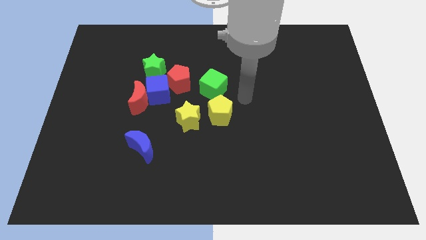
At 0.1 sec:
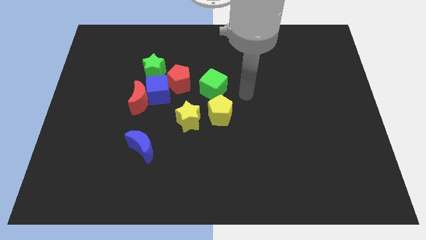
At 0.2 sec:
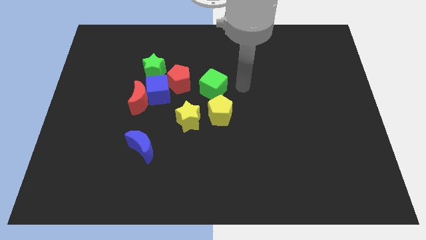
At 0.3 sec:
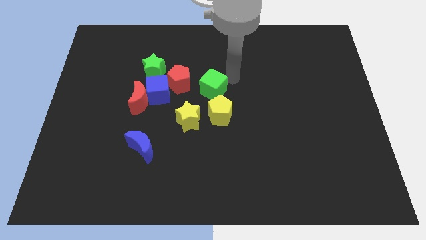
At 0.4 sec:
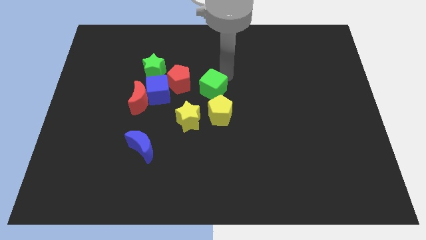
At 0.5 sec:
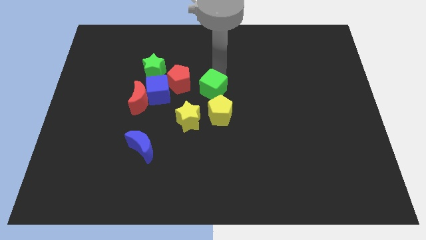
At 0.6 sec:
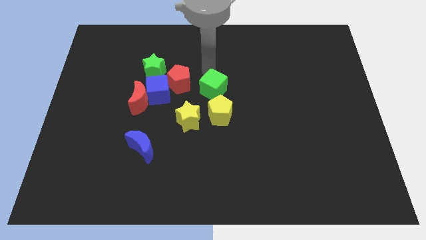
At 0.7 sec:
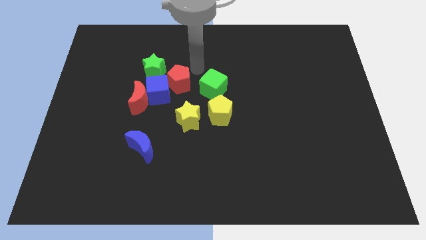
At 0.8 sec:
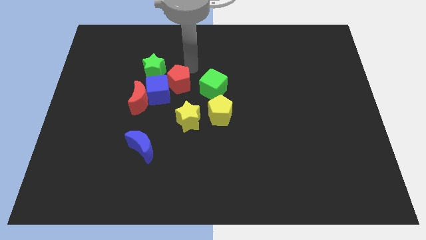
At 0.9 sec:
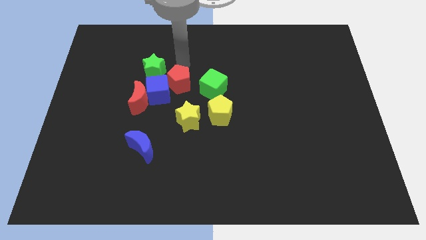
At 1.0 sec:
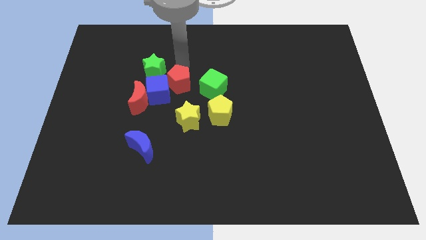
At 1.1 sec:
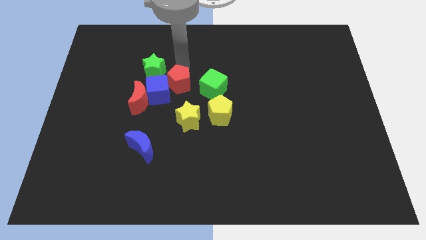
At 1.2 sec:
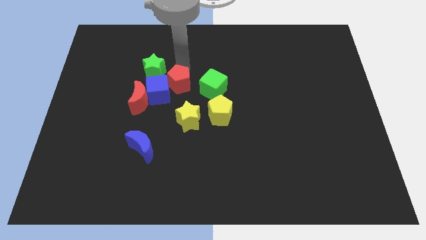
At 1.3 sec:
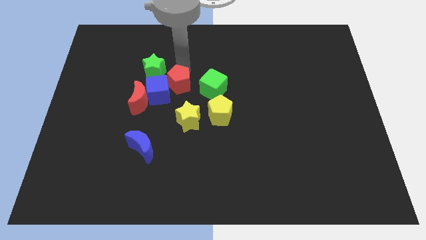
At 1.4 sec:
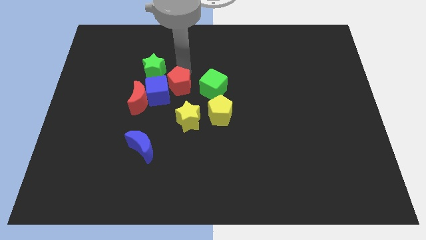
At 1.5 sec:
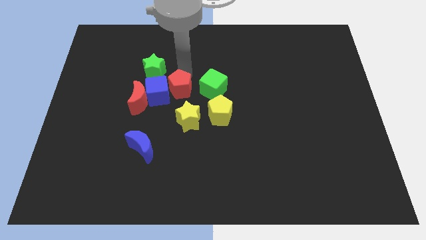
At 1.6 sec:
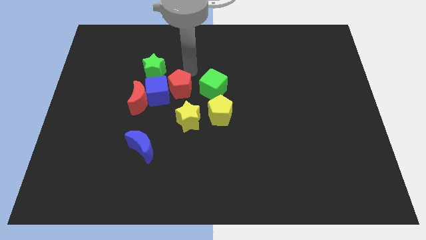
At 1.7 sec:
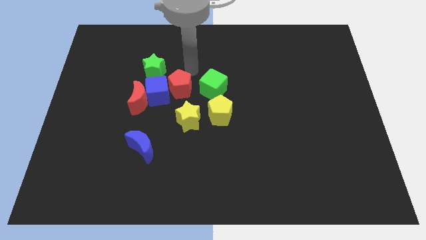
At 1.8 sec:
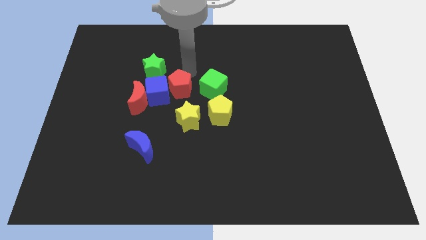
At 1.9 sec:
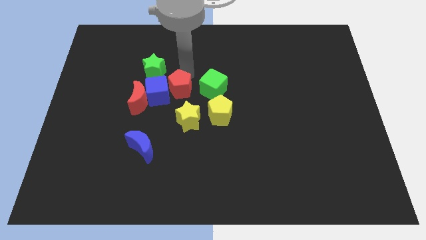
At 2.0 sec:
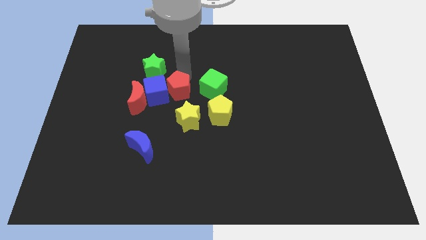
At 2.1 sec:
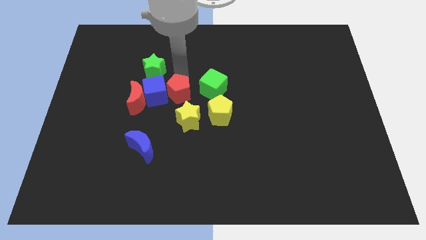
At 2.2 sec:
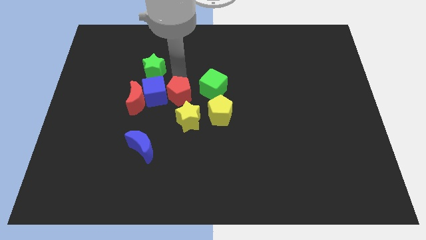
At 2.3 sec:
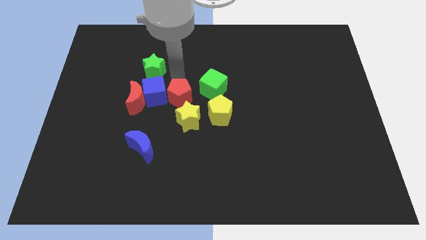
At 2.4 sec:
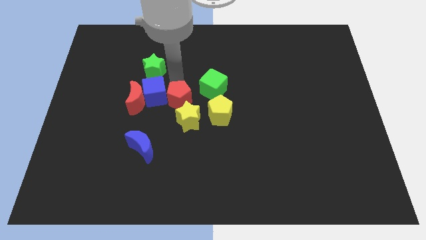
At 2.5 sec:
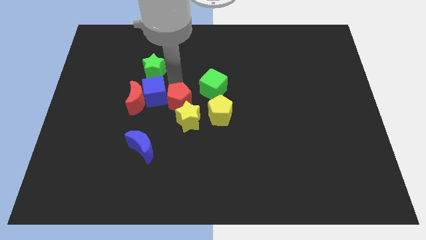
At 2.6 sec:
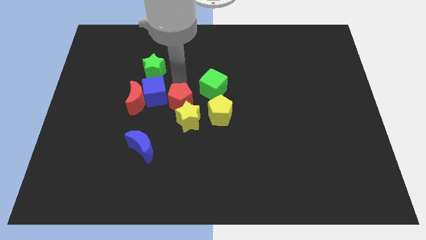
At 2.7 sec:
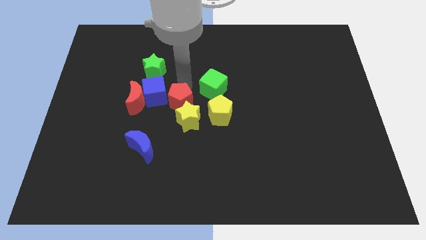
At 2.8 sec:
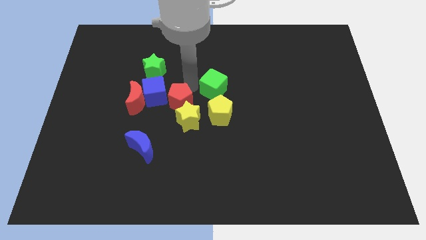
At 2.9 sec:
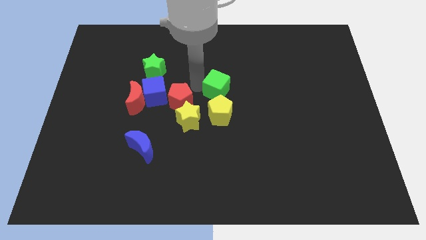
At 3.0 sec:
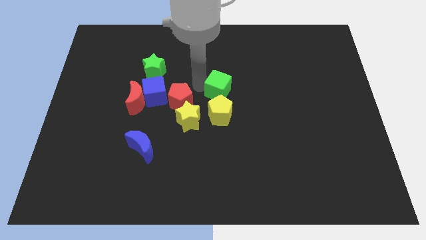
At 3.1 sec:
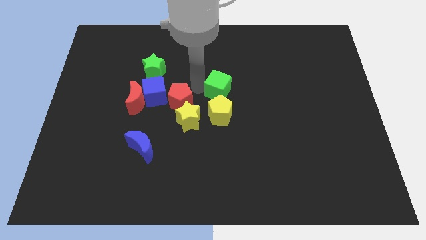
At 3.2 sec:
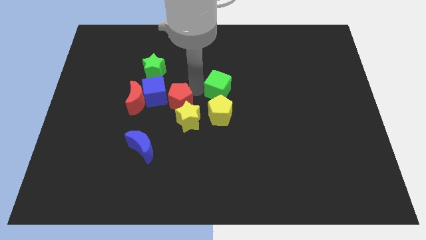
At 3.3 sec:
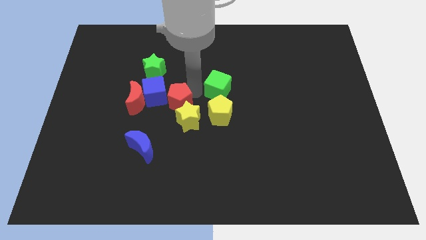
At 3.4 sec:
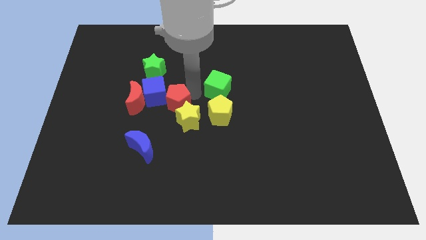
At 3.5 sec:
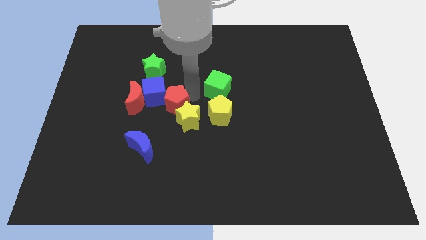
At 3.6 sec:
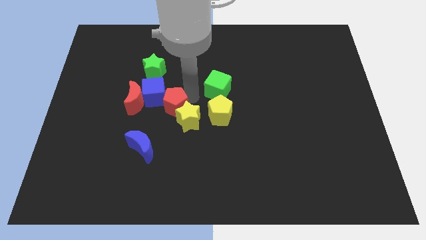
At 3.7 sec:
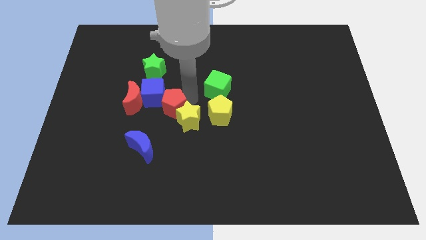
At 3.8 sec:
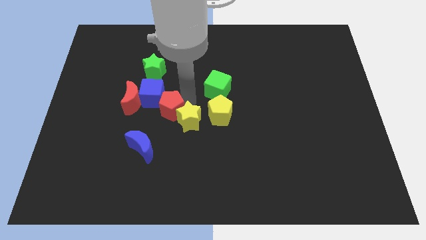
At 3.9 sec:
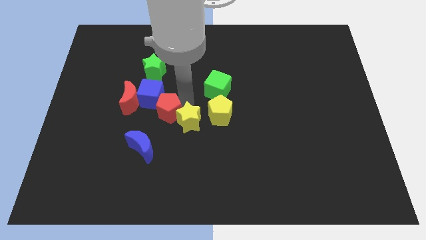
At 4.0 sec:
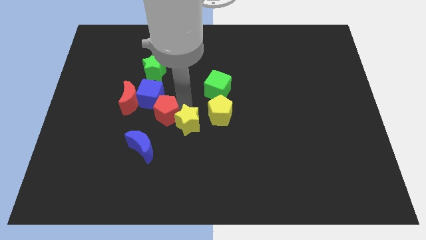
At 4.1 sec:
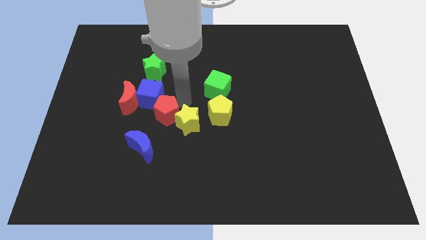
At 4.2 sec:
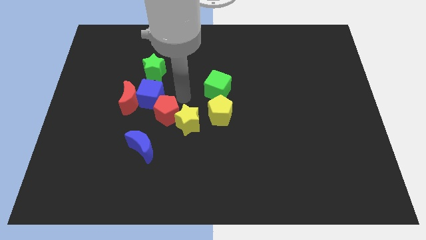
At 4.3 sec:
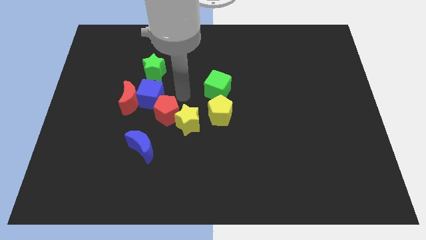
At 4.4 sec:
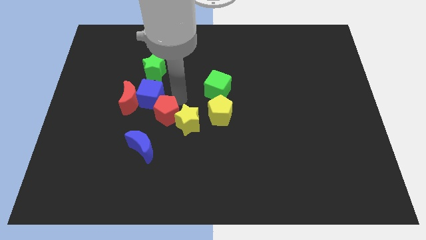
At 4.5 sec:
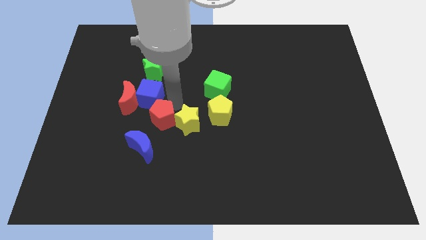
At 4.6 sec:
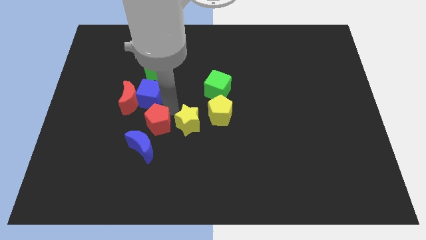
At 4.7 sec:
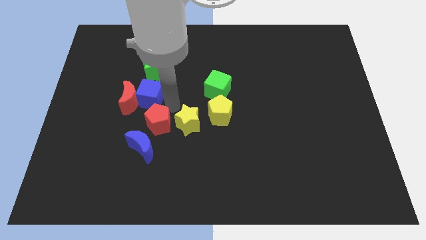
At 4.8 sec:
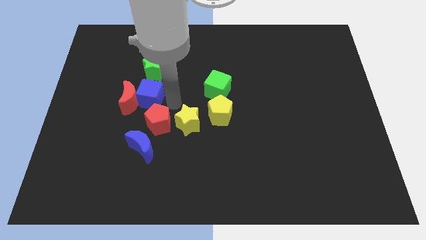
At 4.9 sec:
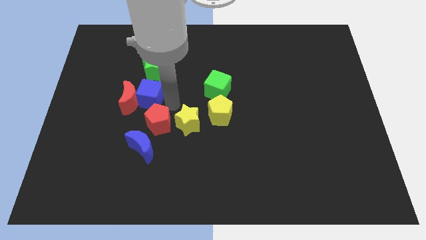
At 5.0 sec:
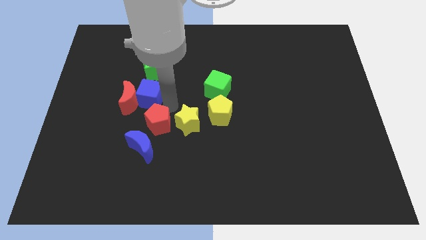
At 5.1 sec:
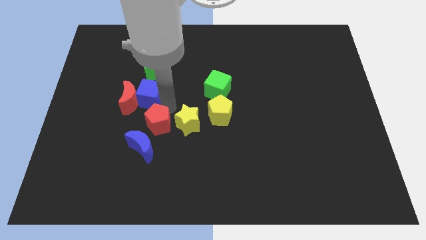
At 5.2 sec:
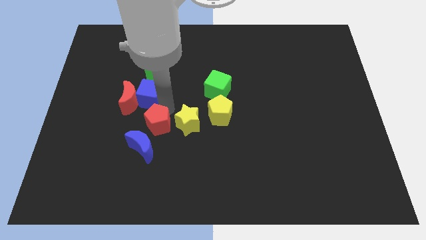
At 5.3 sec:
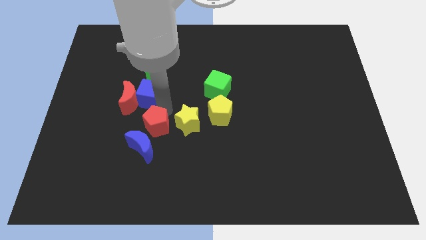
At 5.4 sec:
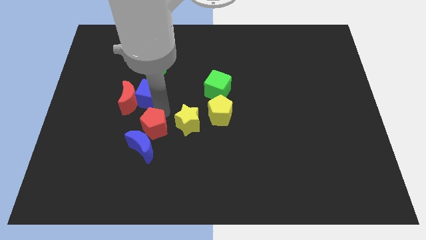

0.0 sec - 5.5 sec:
move the red pentagon to the blue moon

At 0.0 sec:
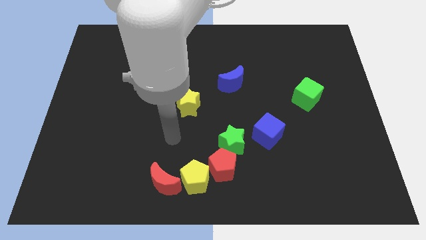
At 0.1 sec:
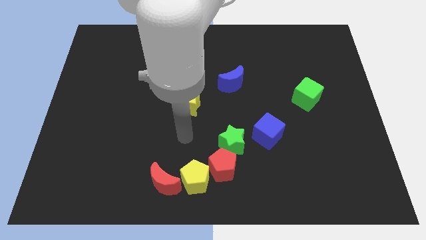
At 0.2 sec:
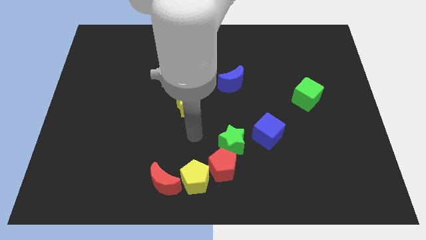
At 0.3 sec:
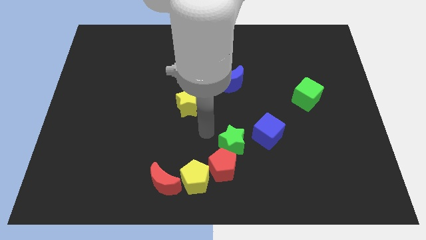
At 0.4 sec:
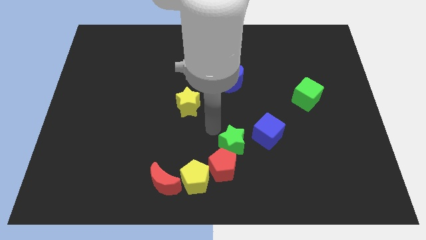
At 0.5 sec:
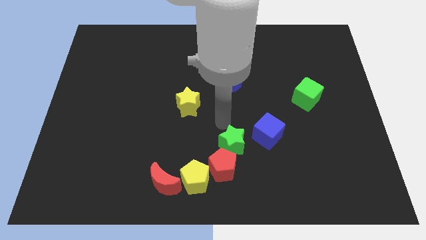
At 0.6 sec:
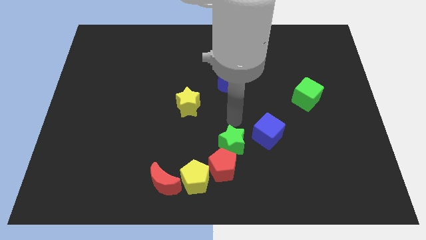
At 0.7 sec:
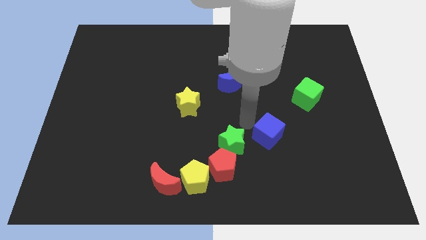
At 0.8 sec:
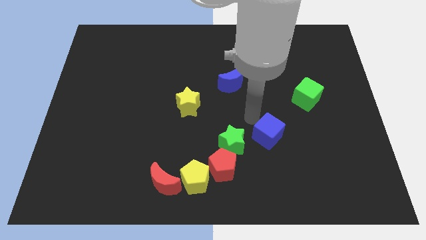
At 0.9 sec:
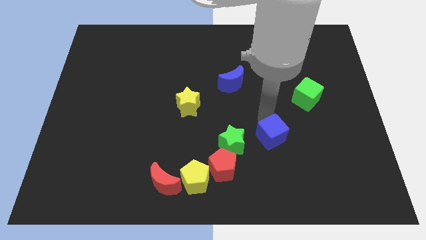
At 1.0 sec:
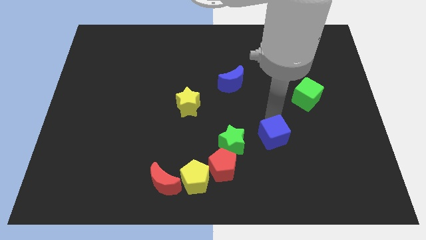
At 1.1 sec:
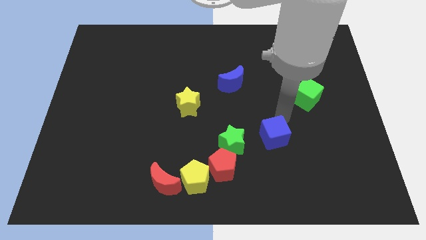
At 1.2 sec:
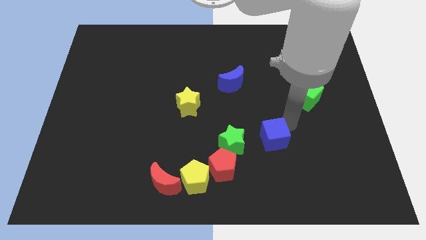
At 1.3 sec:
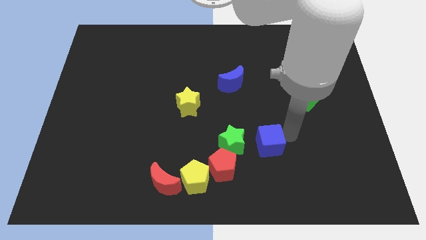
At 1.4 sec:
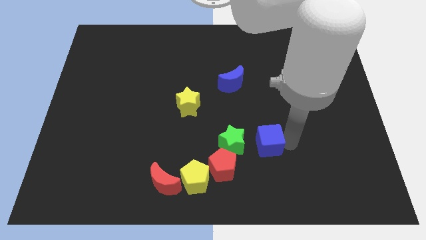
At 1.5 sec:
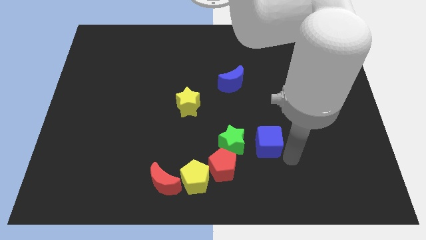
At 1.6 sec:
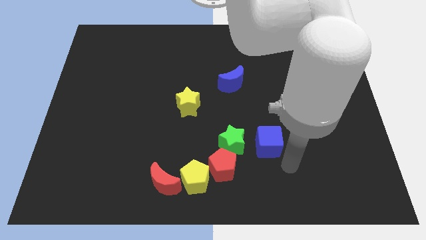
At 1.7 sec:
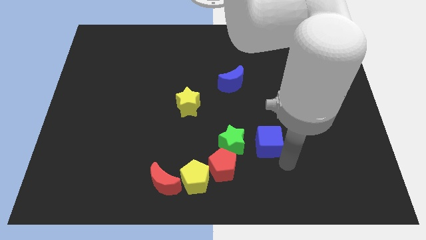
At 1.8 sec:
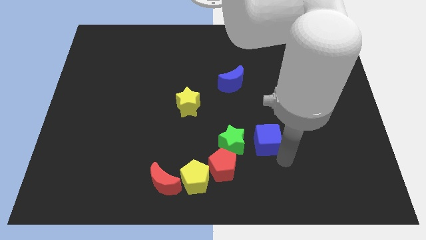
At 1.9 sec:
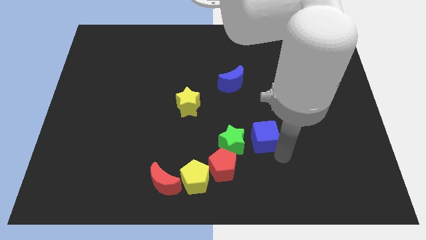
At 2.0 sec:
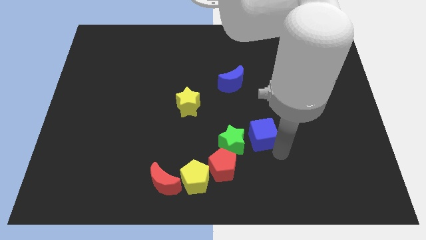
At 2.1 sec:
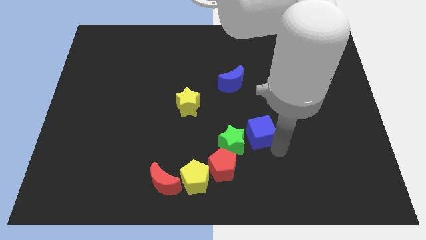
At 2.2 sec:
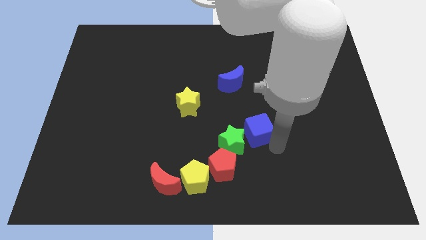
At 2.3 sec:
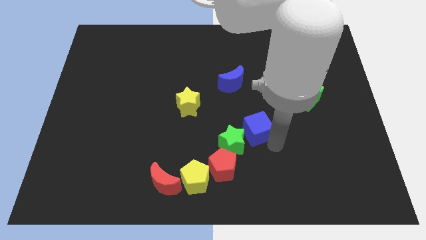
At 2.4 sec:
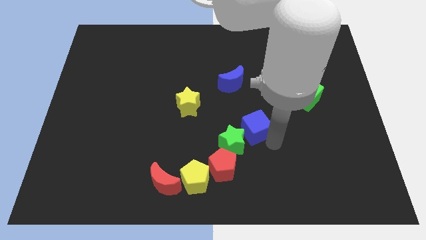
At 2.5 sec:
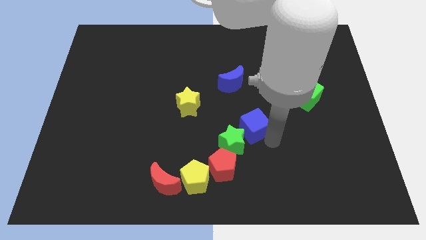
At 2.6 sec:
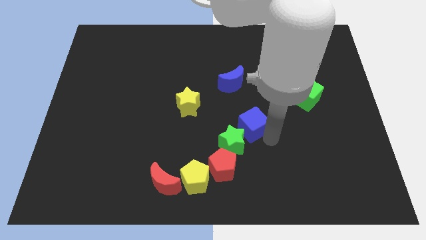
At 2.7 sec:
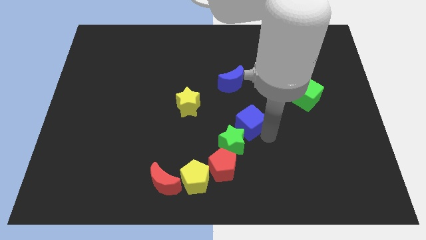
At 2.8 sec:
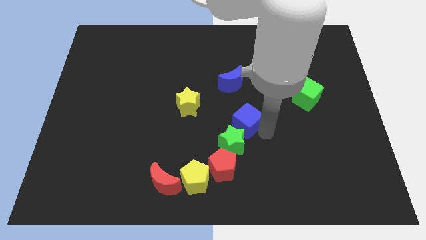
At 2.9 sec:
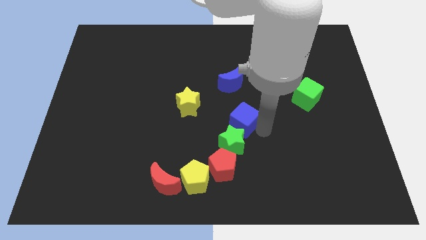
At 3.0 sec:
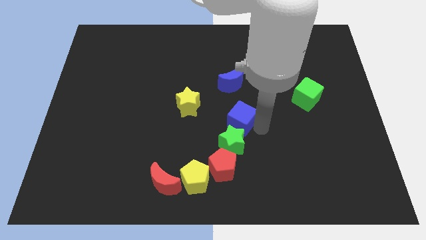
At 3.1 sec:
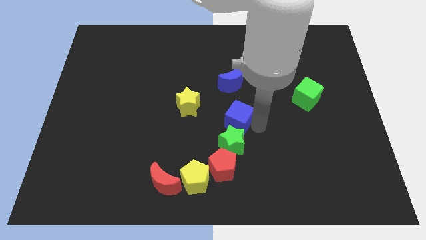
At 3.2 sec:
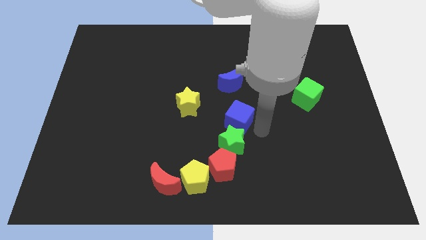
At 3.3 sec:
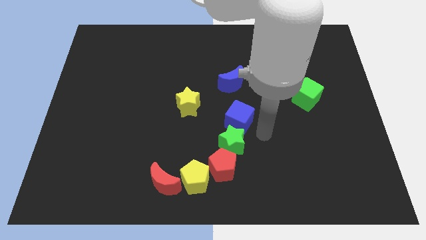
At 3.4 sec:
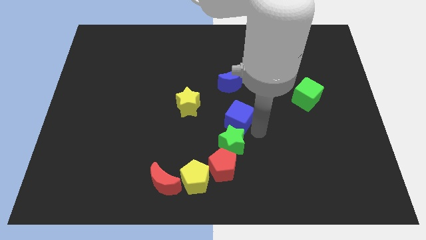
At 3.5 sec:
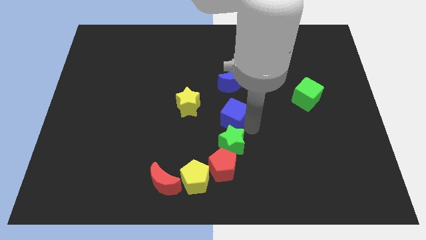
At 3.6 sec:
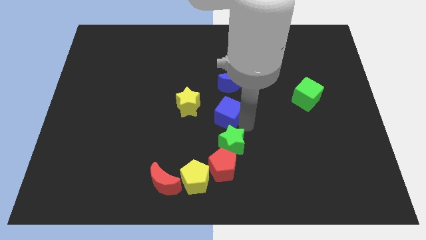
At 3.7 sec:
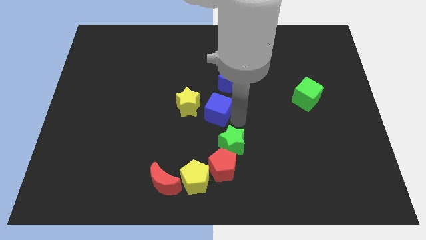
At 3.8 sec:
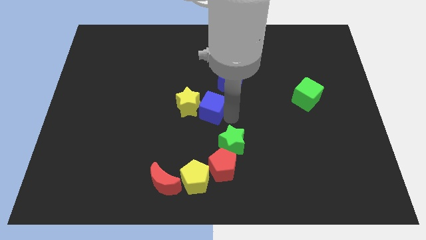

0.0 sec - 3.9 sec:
move the blue cube to the yellow star
